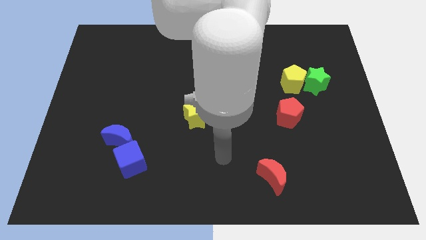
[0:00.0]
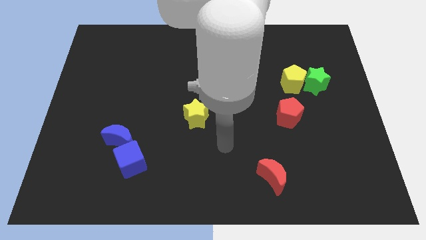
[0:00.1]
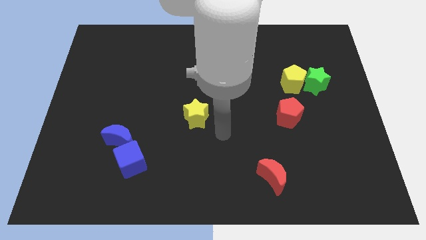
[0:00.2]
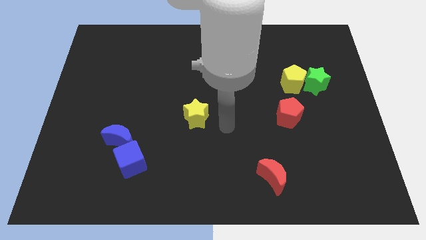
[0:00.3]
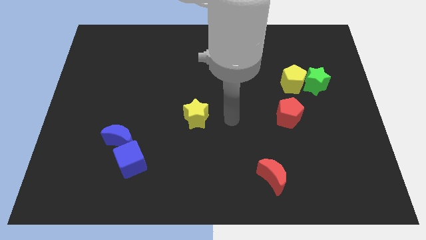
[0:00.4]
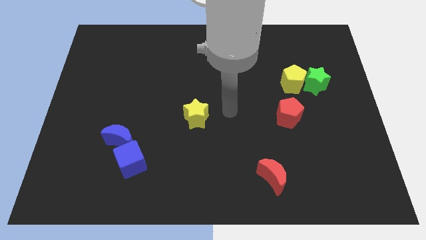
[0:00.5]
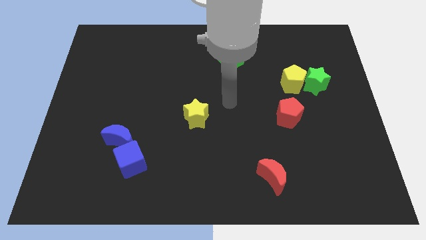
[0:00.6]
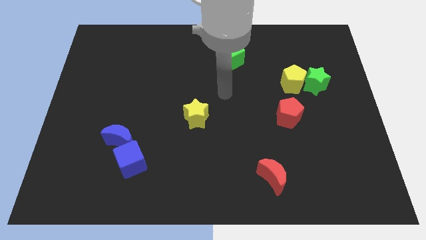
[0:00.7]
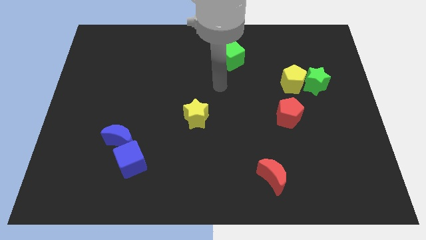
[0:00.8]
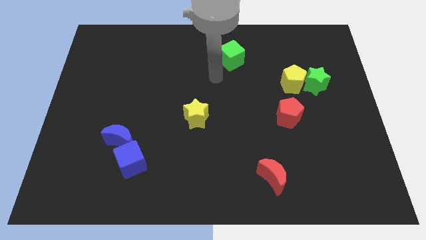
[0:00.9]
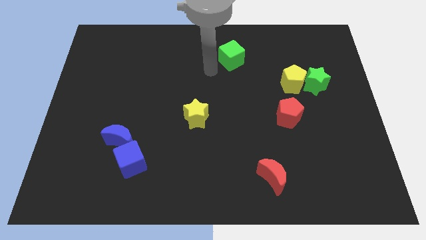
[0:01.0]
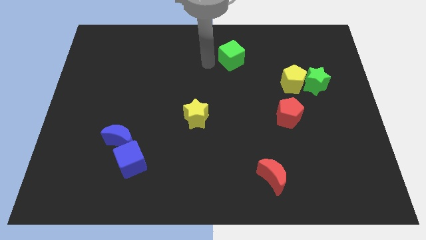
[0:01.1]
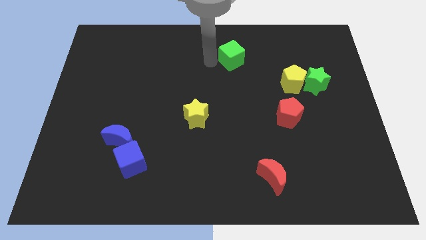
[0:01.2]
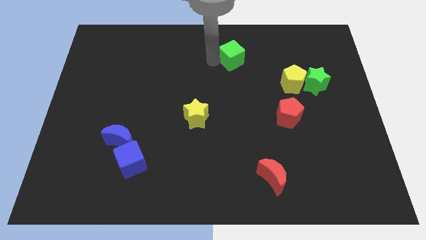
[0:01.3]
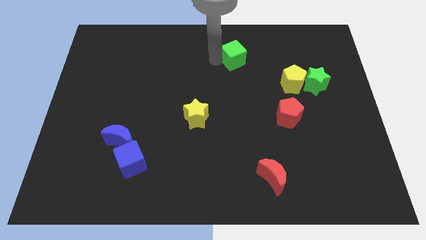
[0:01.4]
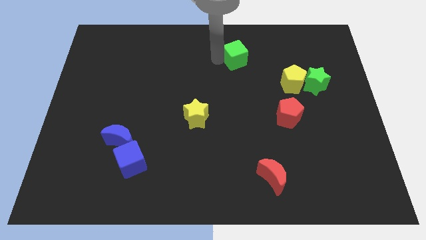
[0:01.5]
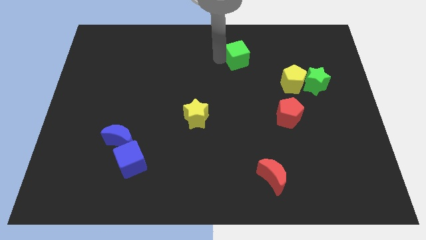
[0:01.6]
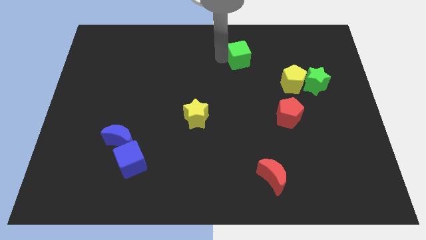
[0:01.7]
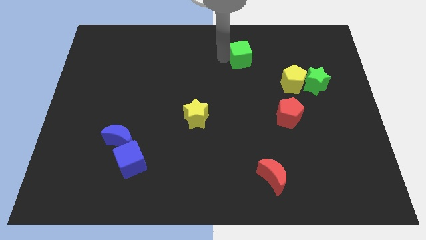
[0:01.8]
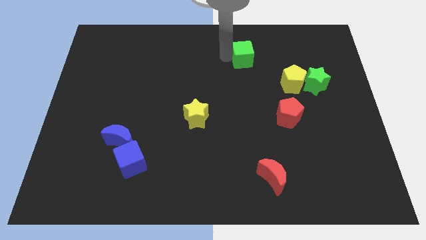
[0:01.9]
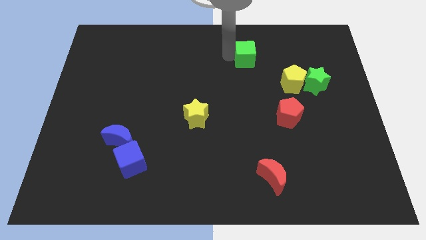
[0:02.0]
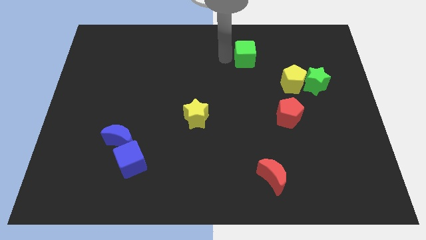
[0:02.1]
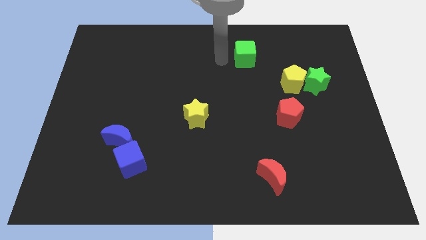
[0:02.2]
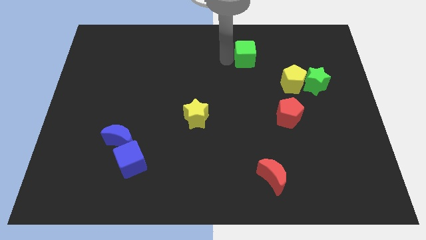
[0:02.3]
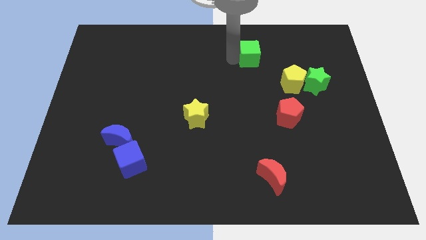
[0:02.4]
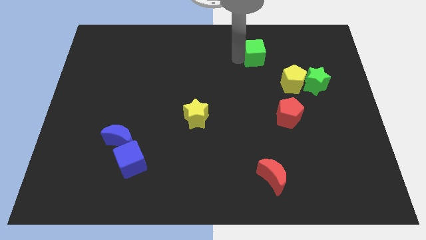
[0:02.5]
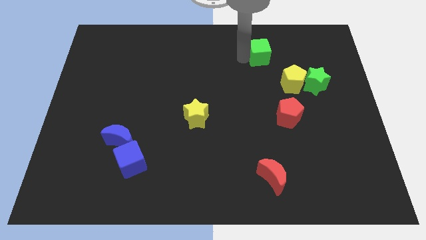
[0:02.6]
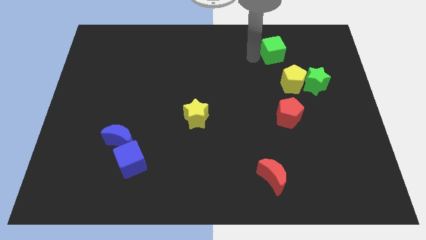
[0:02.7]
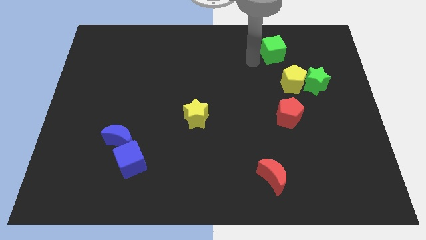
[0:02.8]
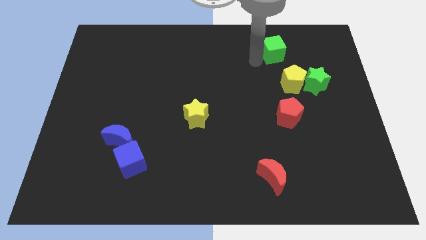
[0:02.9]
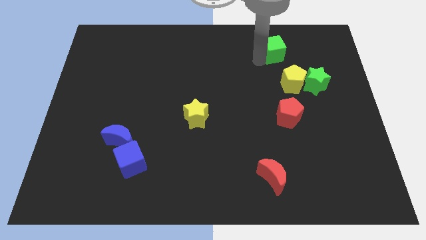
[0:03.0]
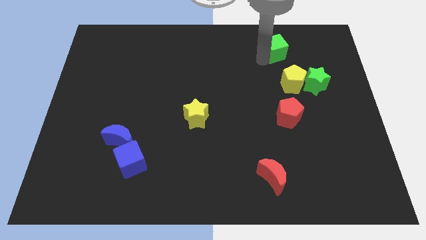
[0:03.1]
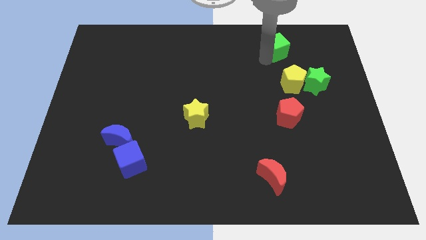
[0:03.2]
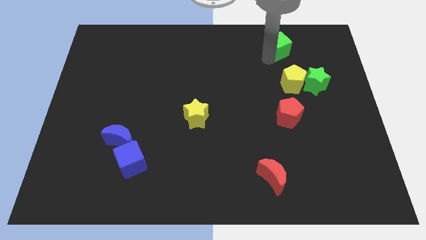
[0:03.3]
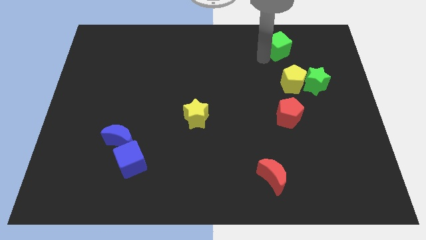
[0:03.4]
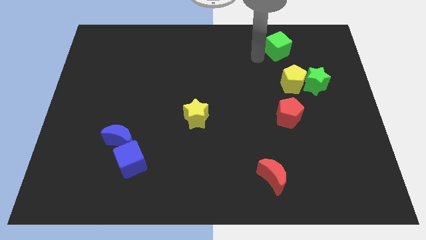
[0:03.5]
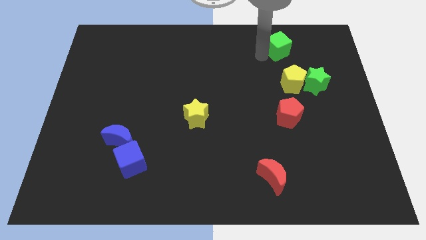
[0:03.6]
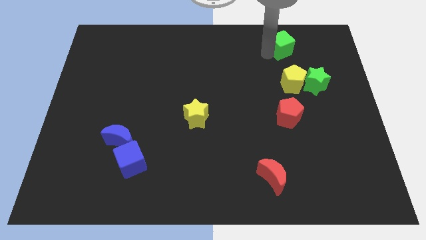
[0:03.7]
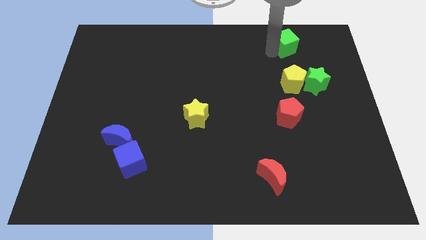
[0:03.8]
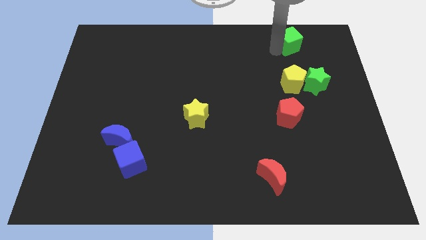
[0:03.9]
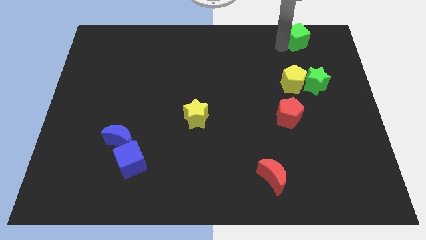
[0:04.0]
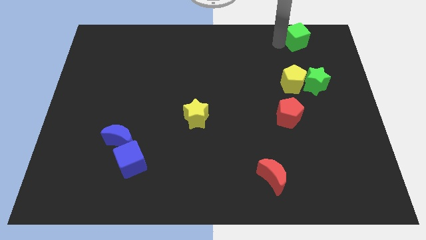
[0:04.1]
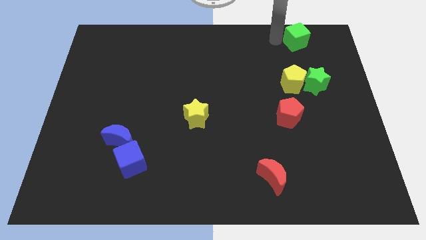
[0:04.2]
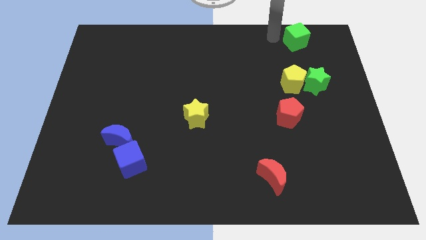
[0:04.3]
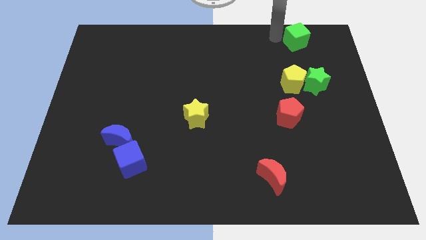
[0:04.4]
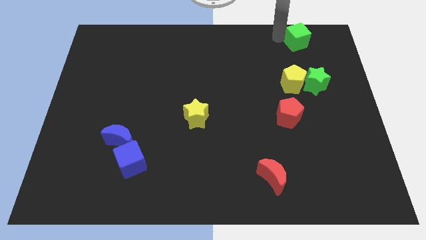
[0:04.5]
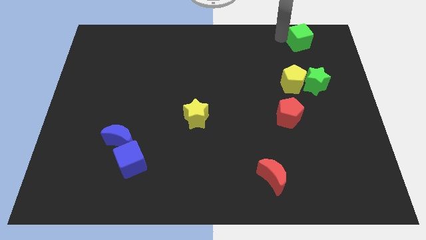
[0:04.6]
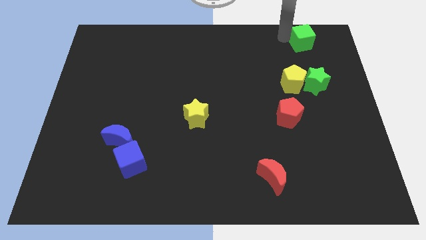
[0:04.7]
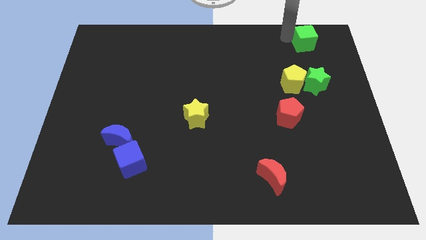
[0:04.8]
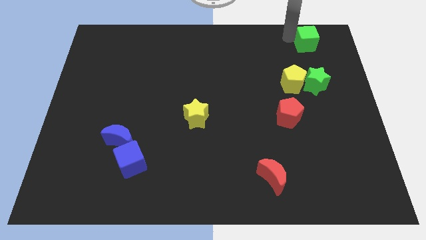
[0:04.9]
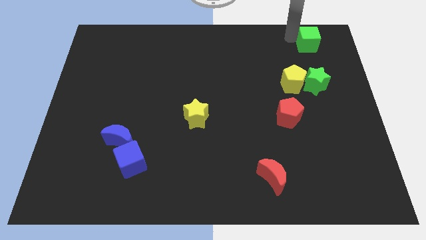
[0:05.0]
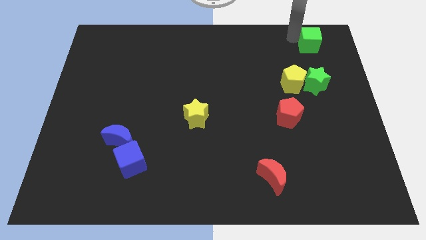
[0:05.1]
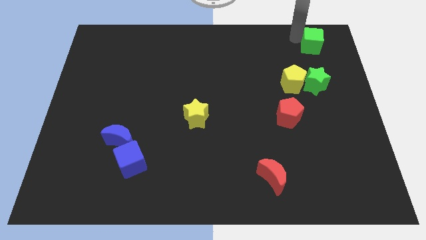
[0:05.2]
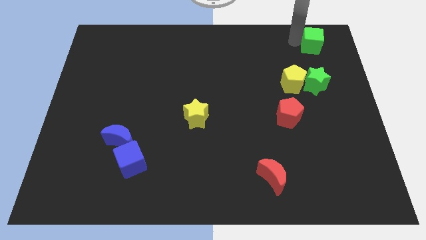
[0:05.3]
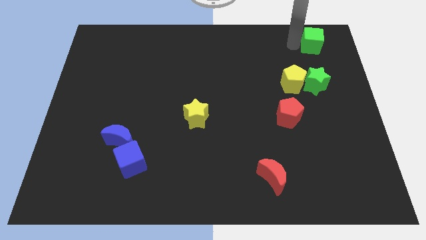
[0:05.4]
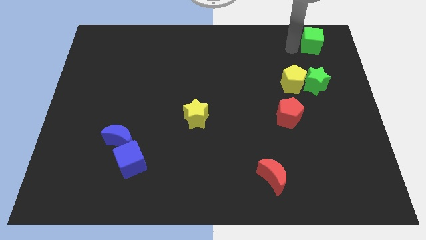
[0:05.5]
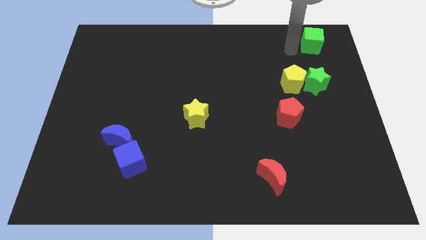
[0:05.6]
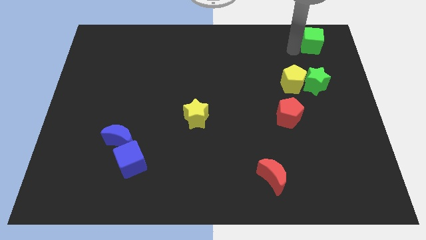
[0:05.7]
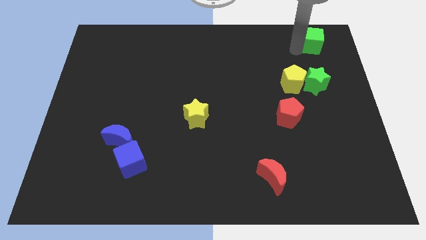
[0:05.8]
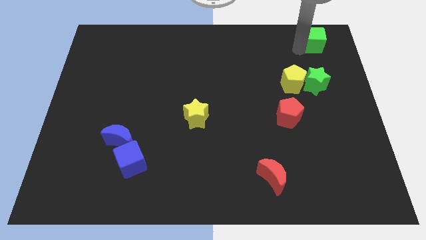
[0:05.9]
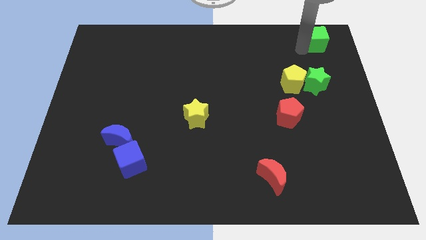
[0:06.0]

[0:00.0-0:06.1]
move the green cube to the top right of the board

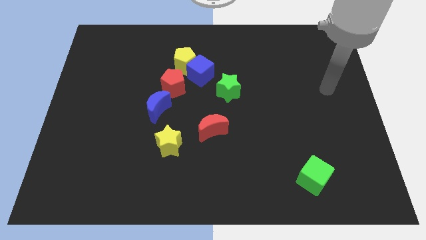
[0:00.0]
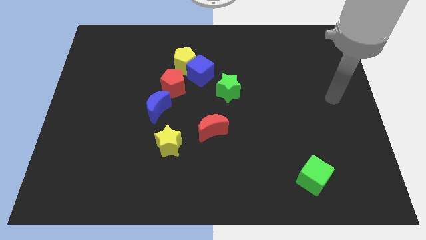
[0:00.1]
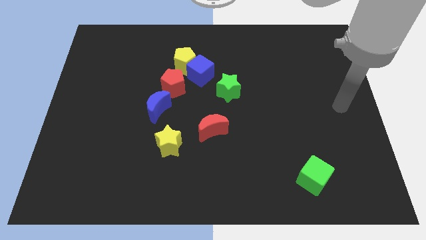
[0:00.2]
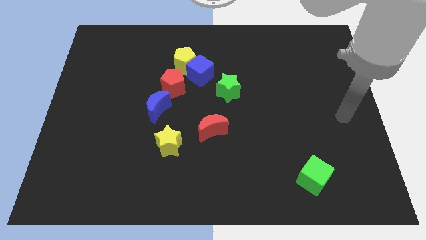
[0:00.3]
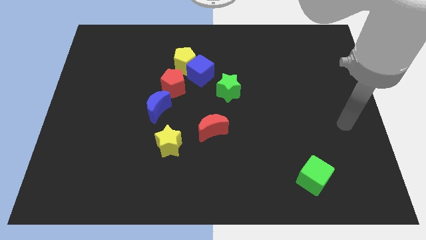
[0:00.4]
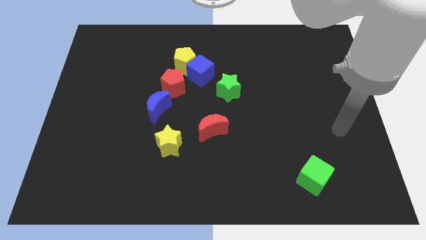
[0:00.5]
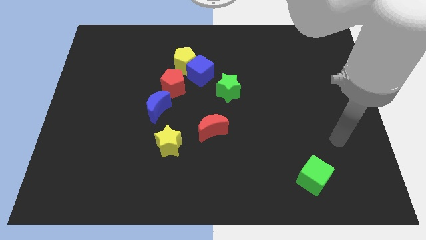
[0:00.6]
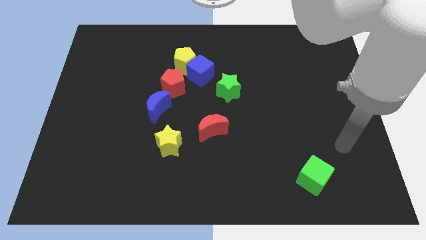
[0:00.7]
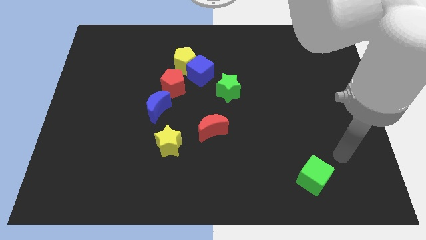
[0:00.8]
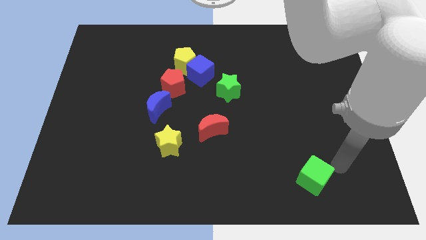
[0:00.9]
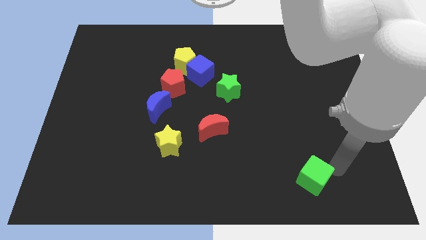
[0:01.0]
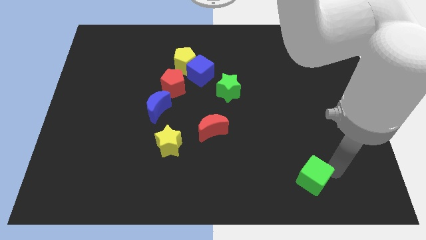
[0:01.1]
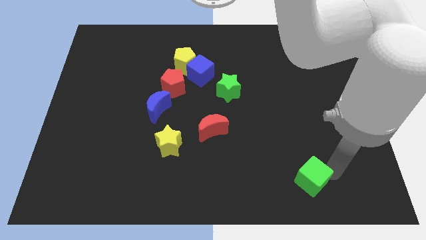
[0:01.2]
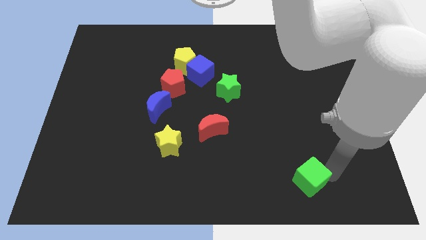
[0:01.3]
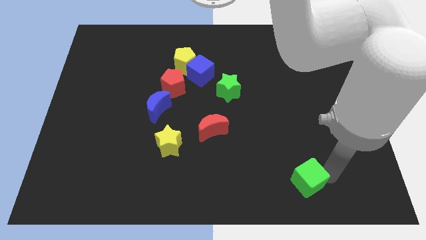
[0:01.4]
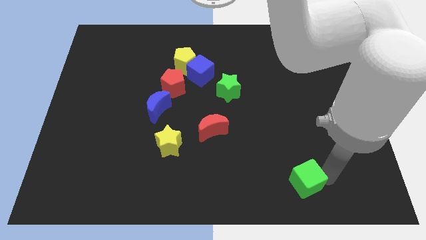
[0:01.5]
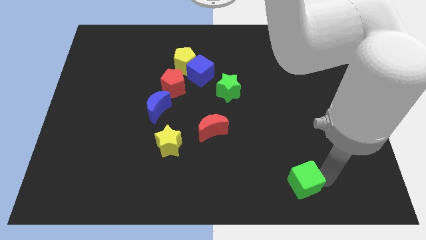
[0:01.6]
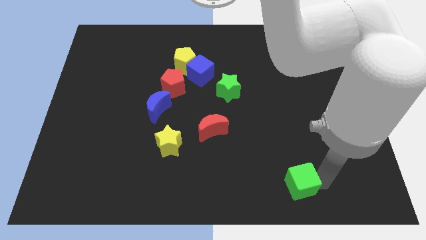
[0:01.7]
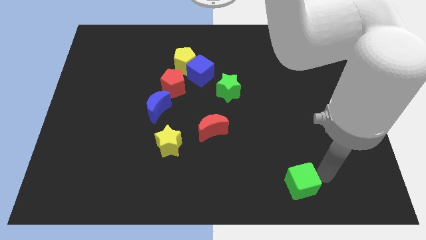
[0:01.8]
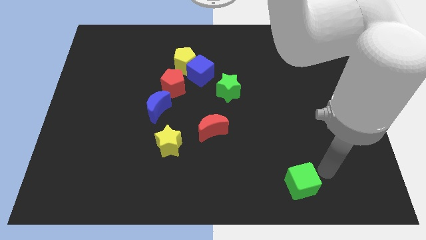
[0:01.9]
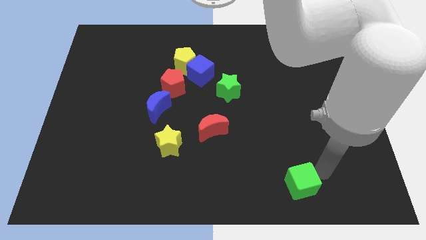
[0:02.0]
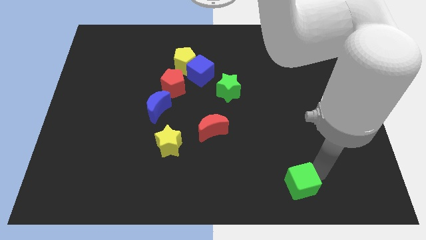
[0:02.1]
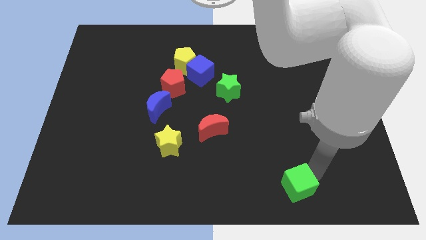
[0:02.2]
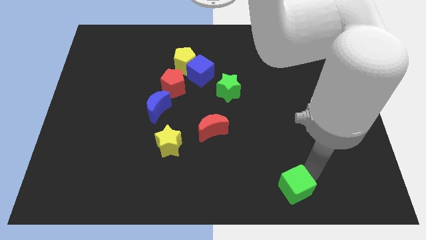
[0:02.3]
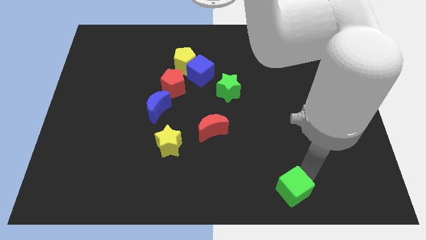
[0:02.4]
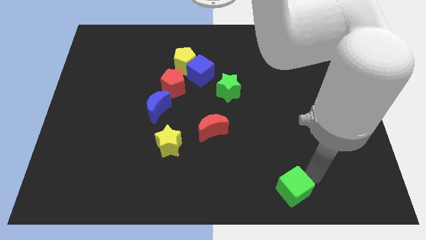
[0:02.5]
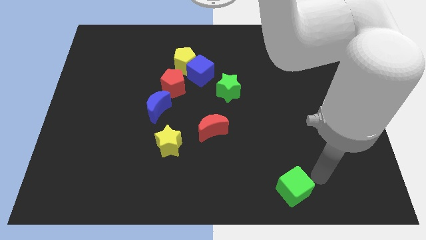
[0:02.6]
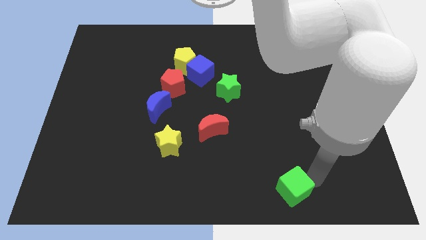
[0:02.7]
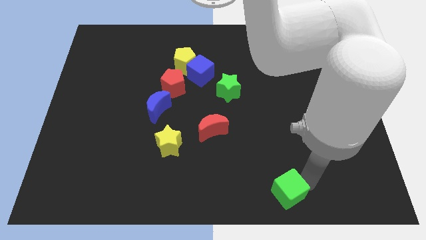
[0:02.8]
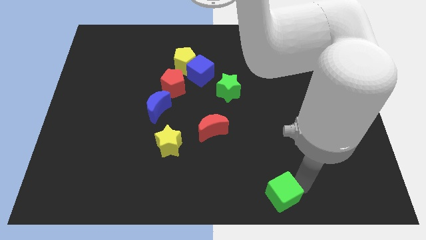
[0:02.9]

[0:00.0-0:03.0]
push the green cube to the bottom
